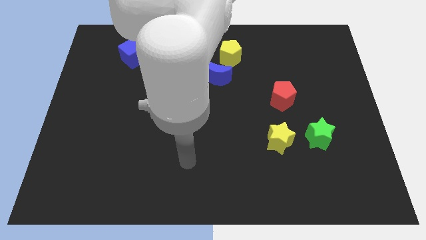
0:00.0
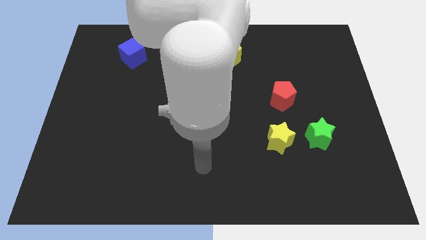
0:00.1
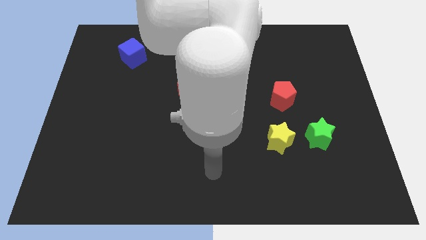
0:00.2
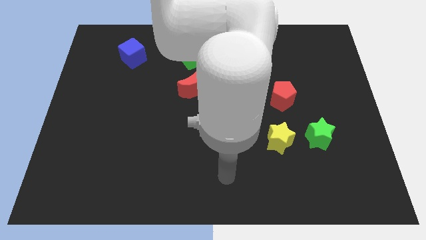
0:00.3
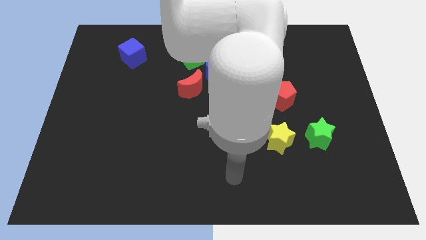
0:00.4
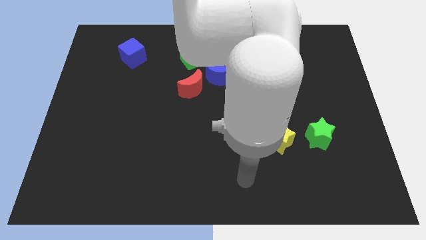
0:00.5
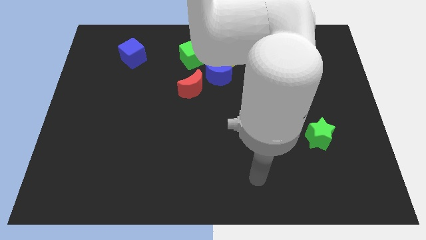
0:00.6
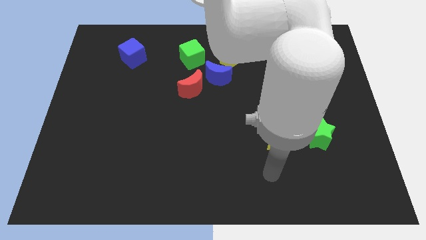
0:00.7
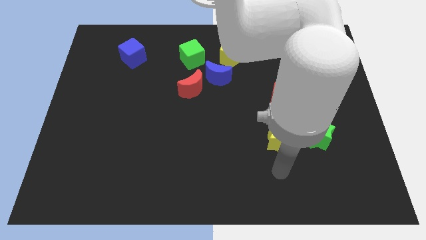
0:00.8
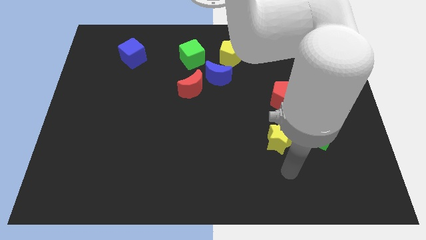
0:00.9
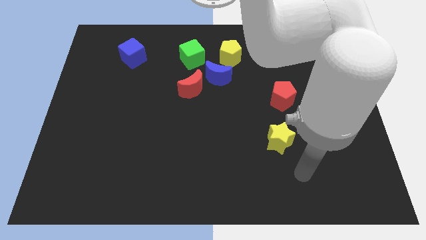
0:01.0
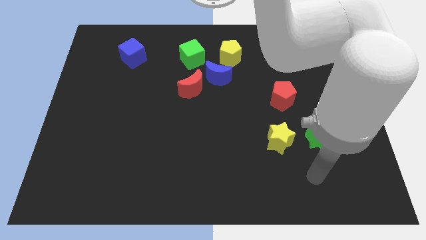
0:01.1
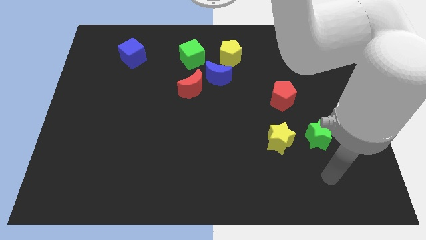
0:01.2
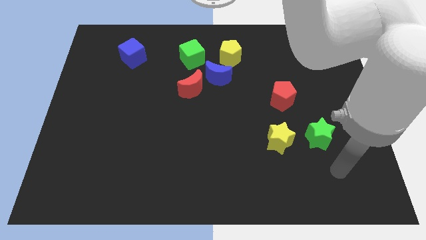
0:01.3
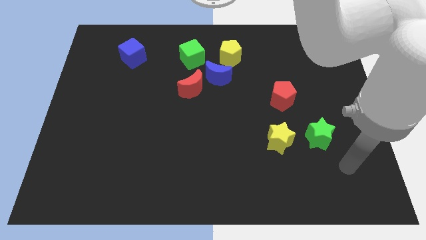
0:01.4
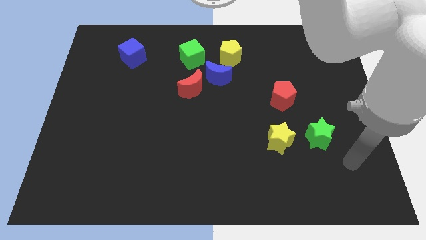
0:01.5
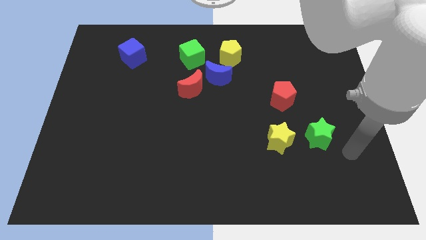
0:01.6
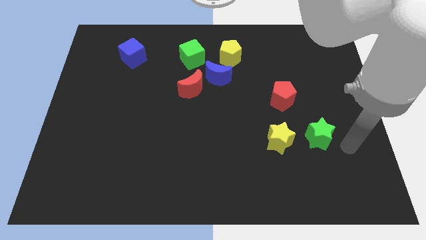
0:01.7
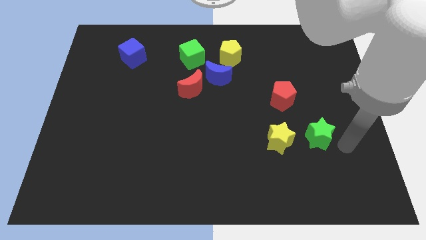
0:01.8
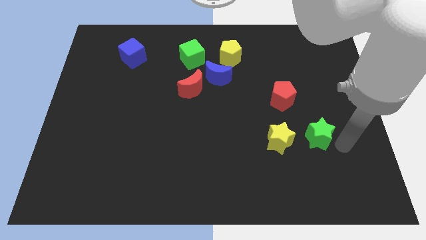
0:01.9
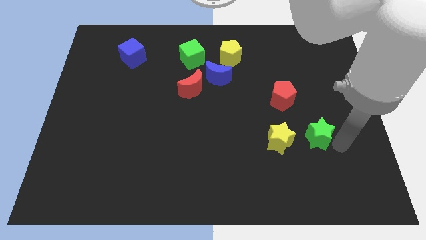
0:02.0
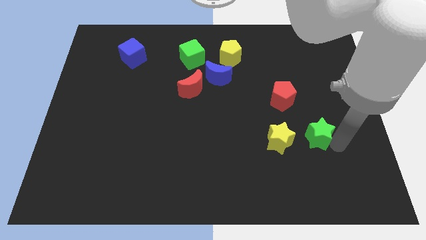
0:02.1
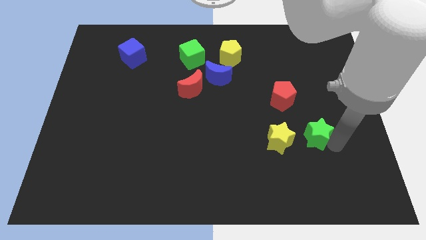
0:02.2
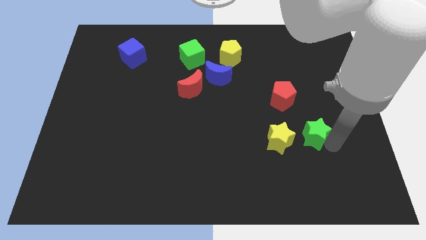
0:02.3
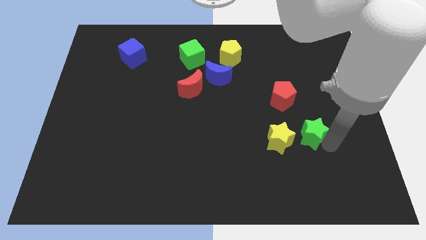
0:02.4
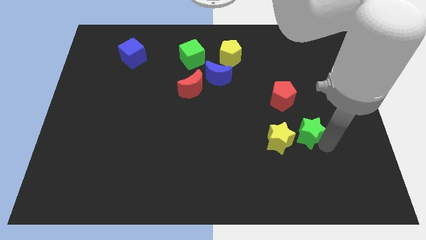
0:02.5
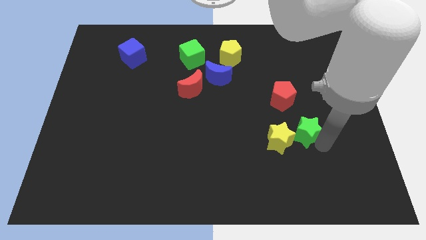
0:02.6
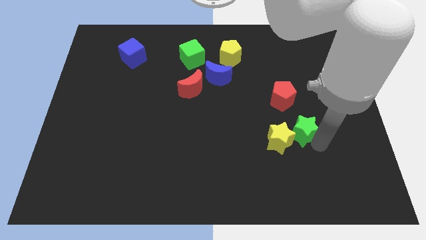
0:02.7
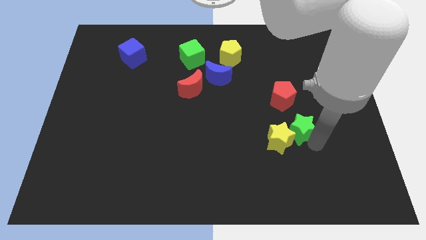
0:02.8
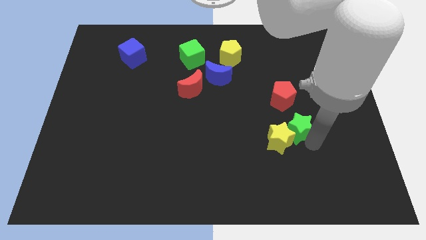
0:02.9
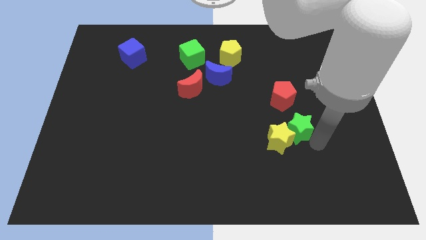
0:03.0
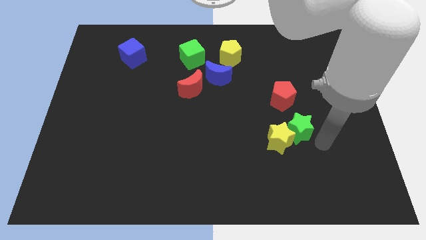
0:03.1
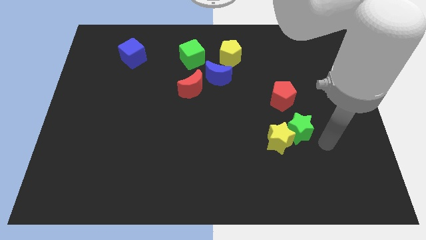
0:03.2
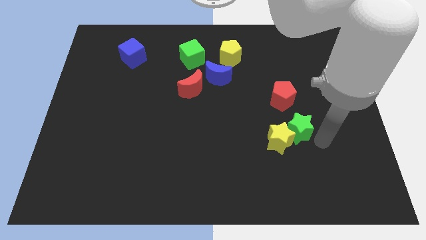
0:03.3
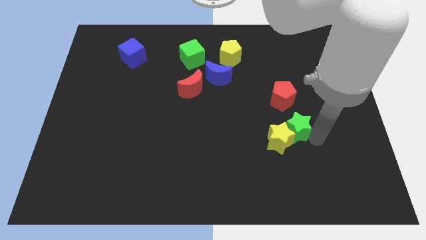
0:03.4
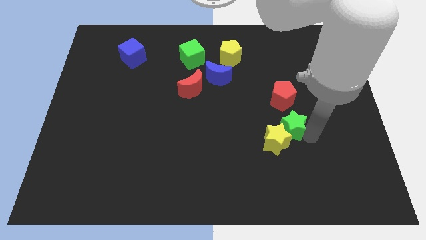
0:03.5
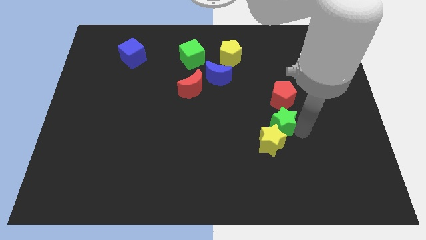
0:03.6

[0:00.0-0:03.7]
push the green star to the left slightly

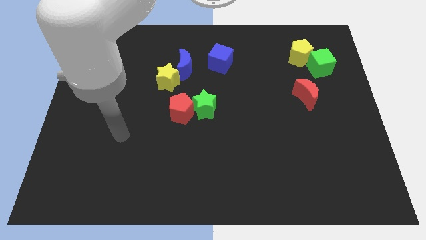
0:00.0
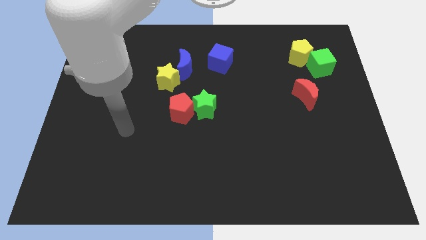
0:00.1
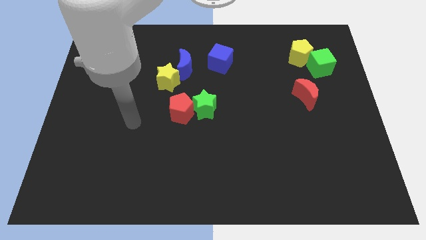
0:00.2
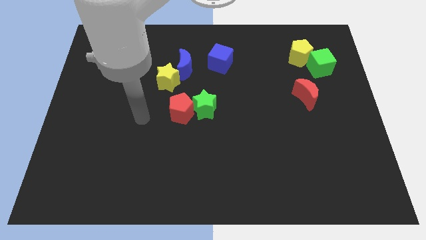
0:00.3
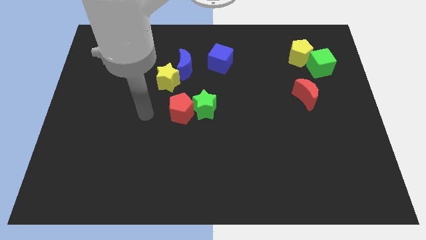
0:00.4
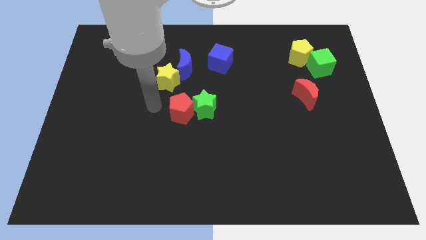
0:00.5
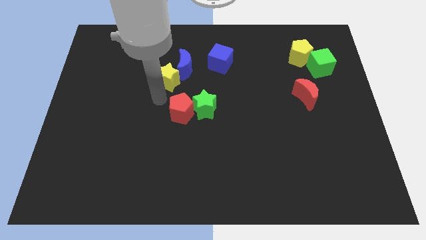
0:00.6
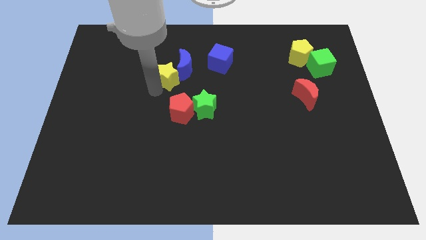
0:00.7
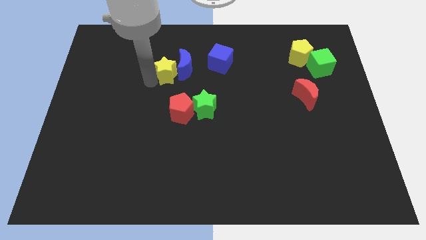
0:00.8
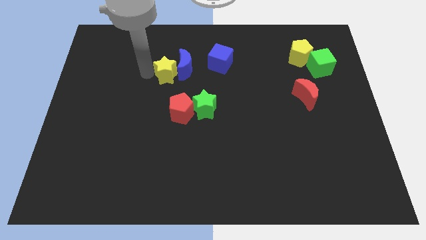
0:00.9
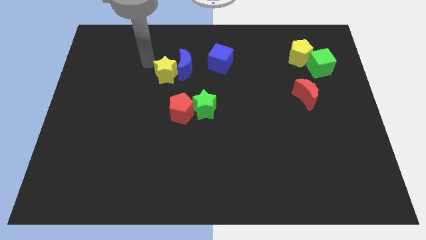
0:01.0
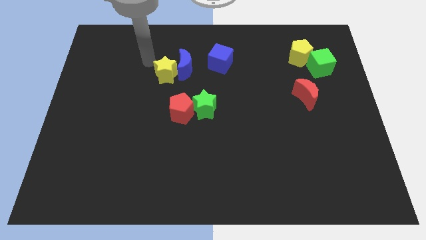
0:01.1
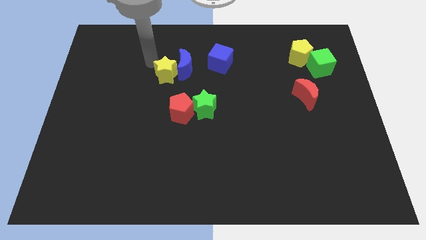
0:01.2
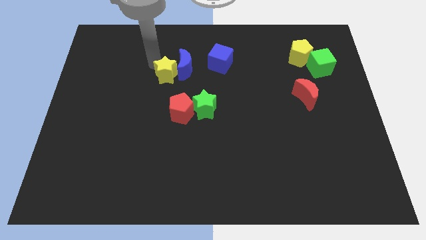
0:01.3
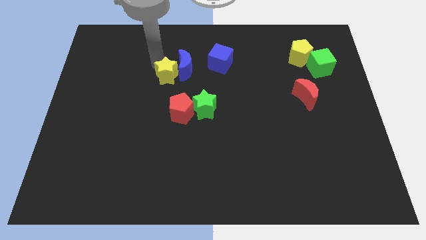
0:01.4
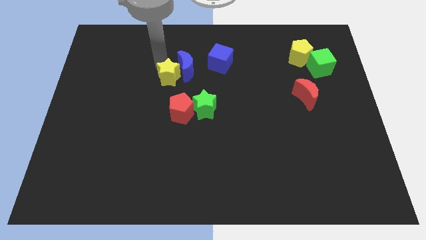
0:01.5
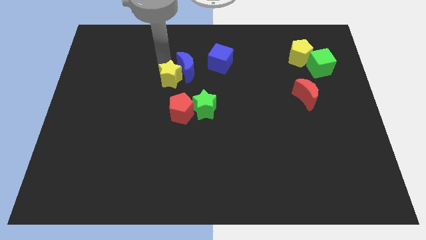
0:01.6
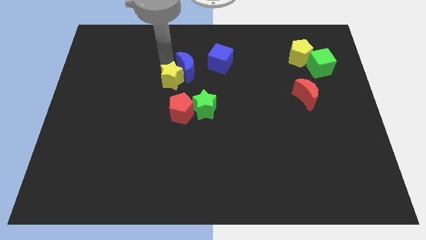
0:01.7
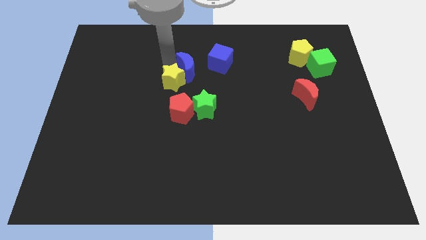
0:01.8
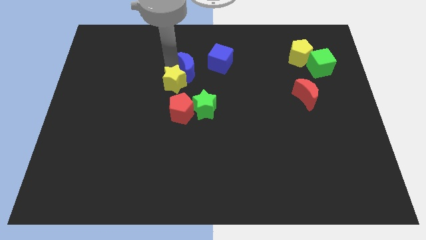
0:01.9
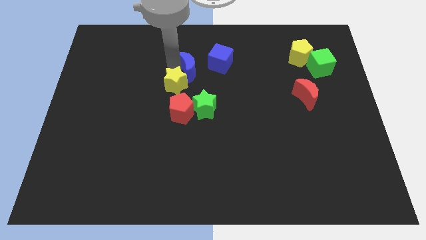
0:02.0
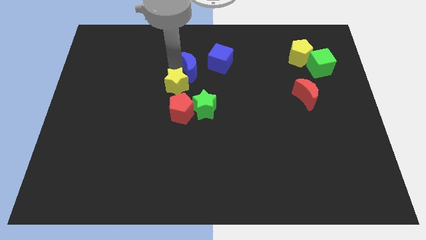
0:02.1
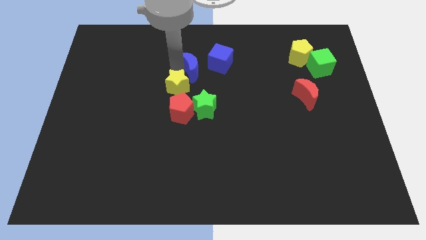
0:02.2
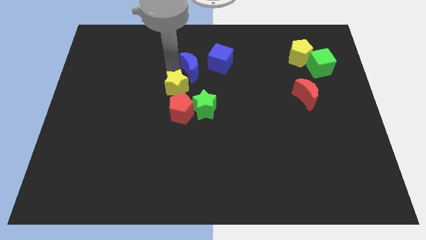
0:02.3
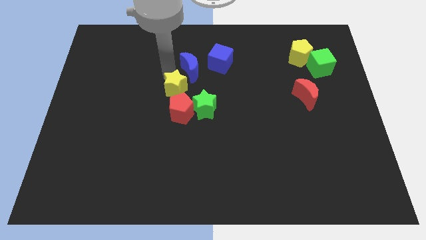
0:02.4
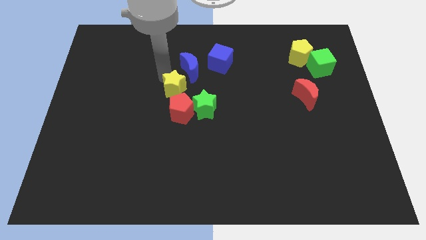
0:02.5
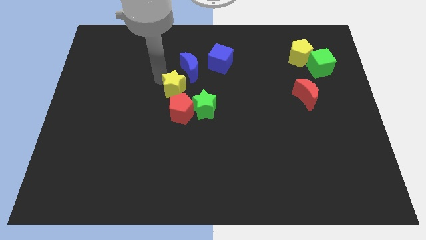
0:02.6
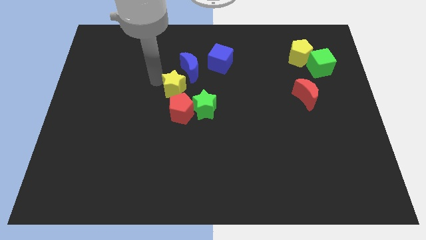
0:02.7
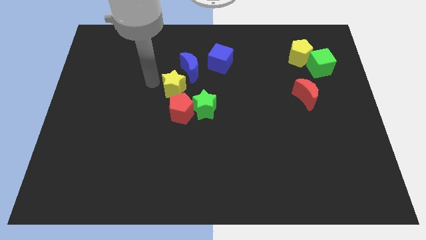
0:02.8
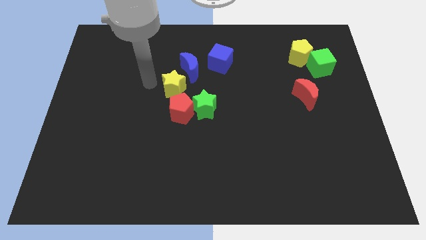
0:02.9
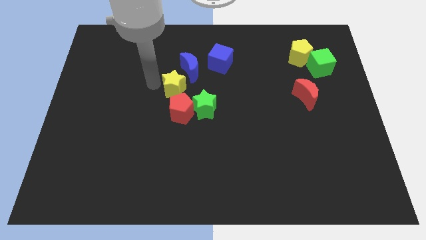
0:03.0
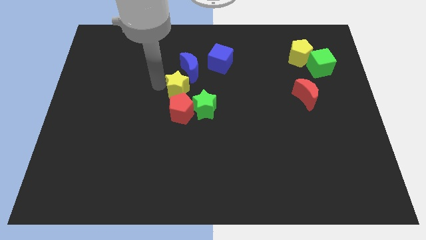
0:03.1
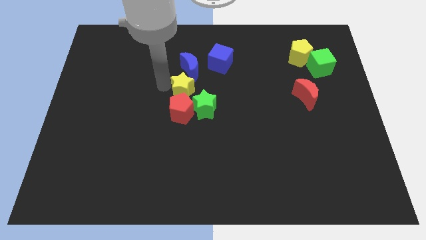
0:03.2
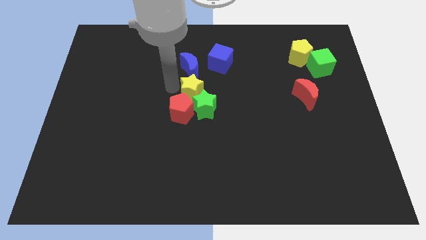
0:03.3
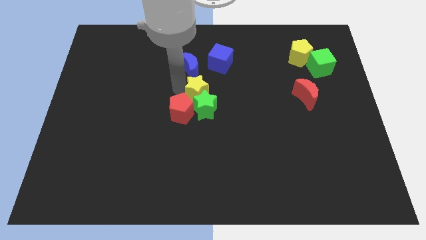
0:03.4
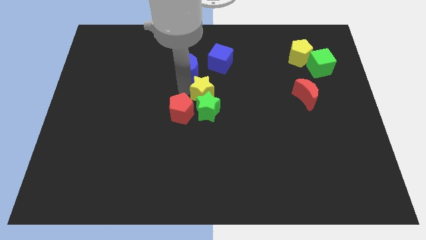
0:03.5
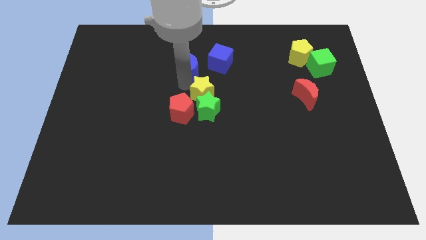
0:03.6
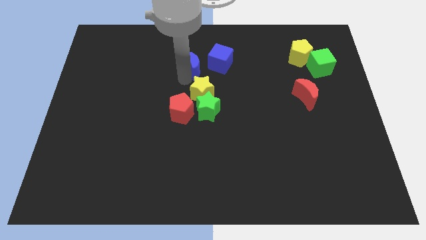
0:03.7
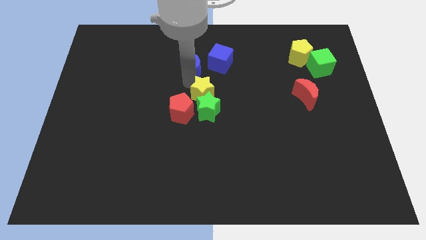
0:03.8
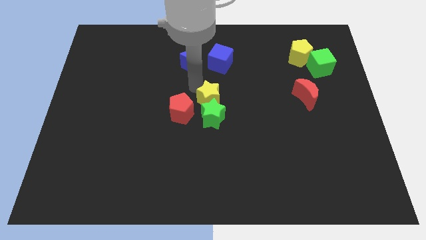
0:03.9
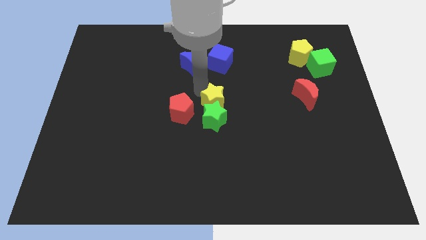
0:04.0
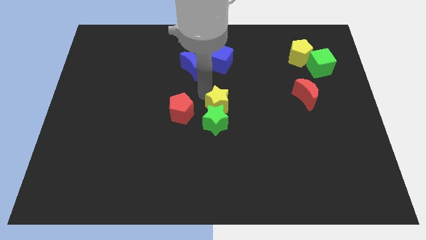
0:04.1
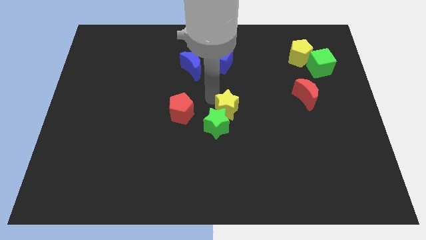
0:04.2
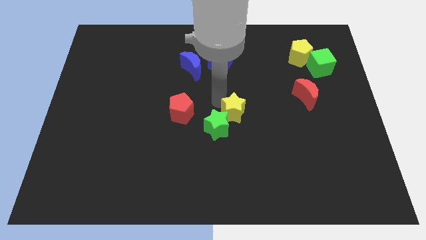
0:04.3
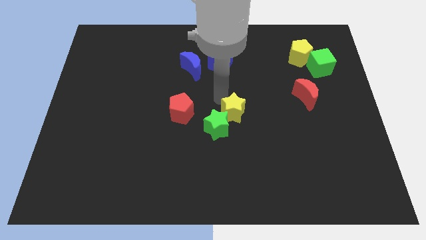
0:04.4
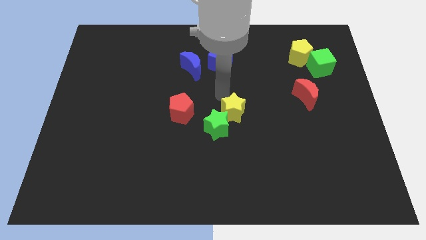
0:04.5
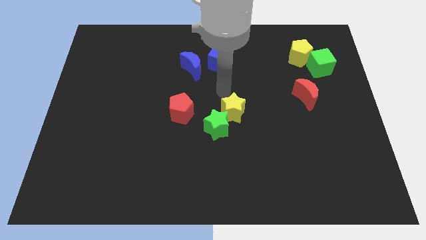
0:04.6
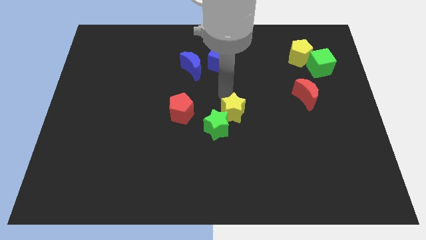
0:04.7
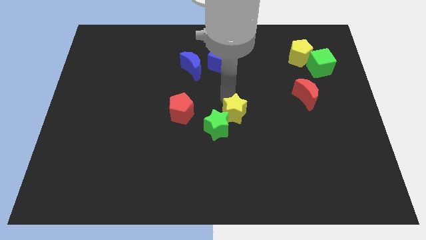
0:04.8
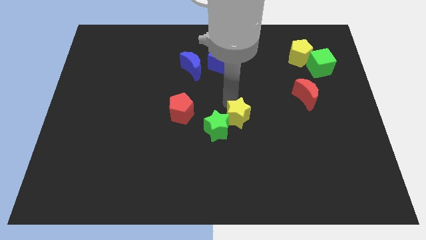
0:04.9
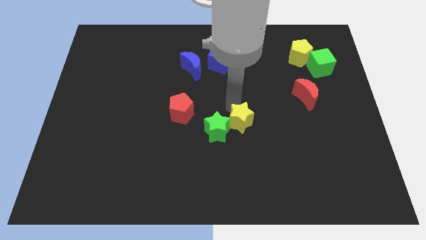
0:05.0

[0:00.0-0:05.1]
slide the yellow star downwards and then right
